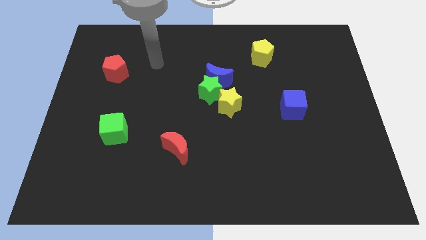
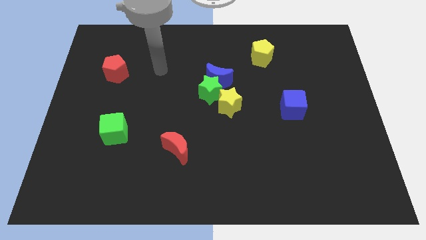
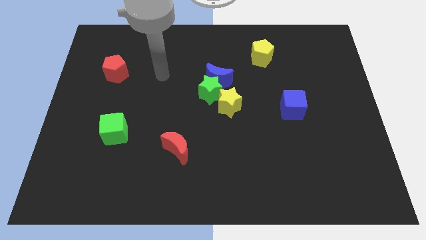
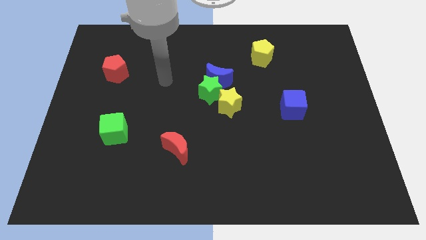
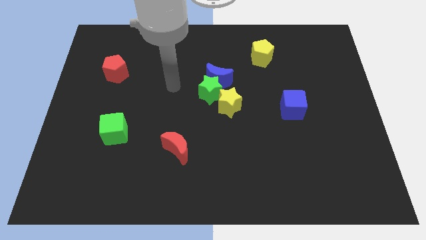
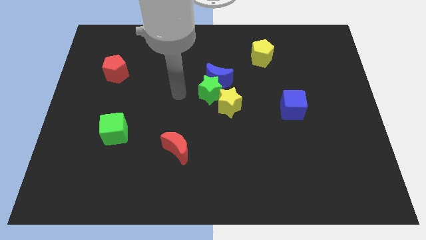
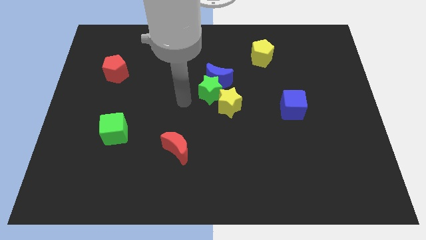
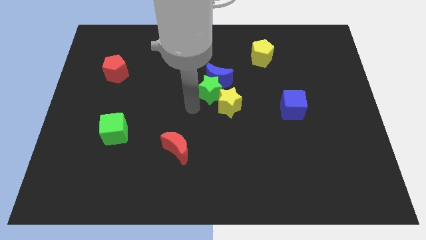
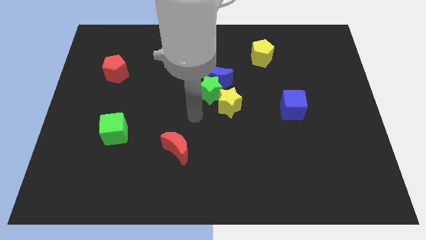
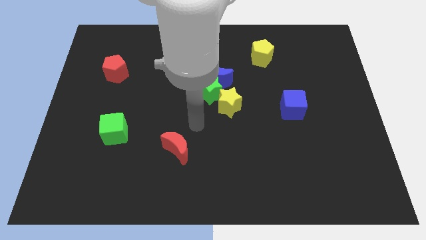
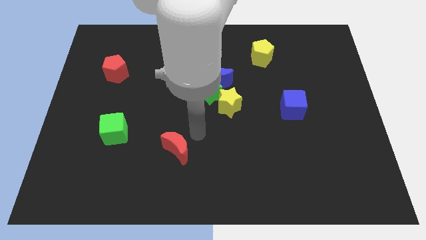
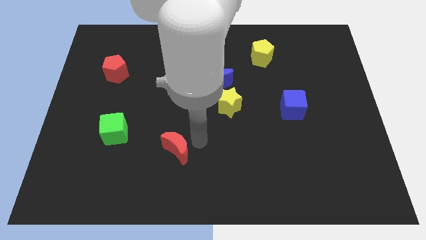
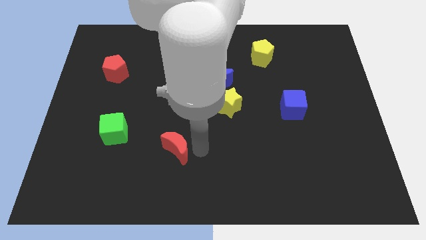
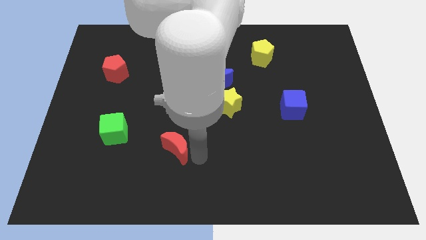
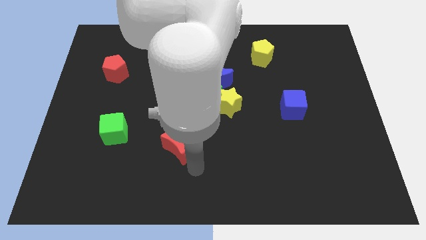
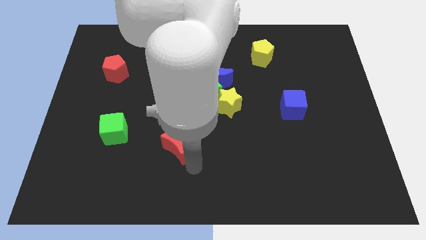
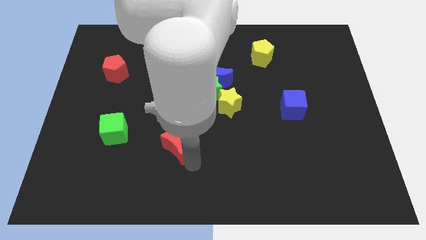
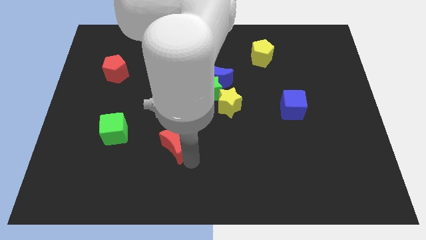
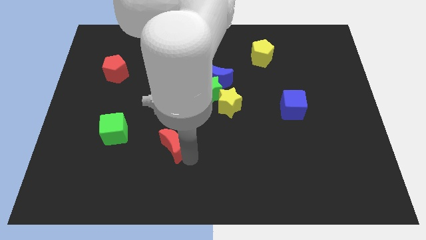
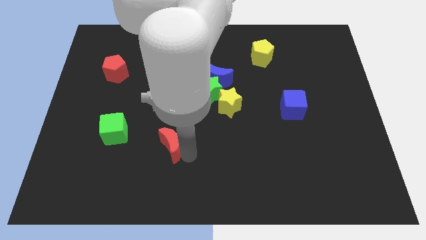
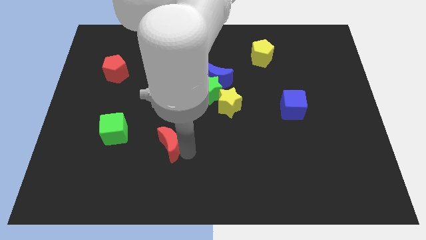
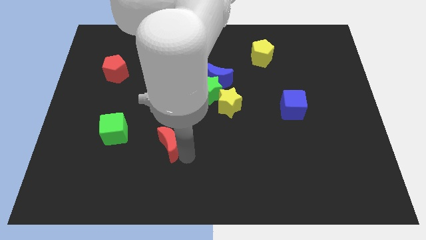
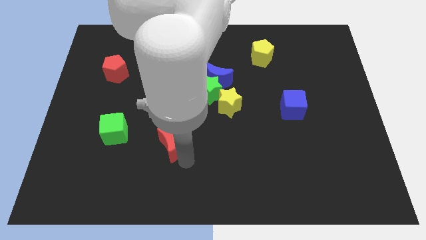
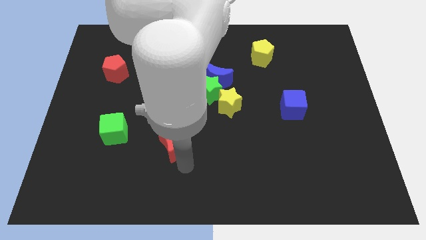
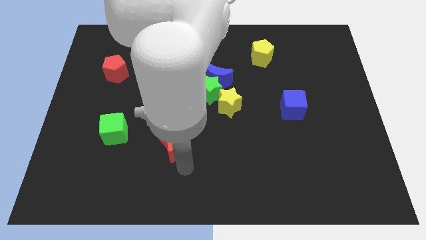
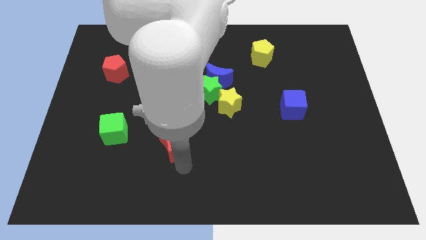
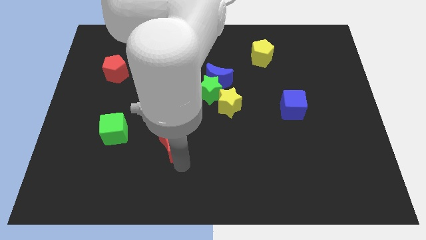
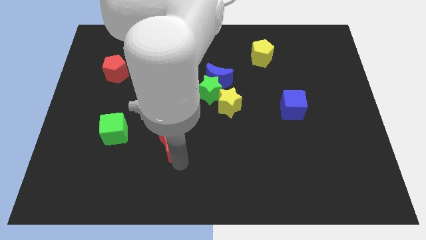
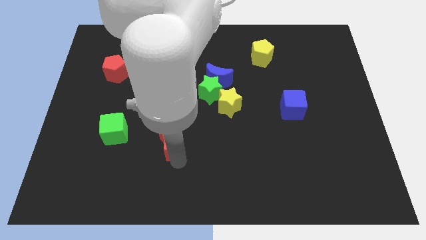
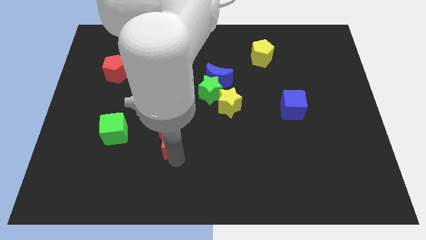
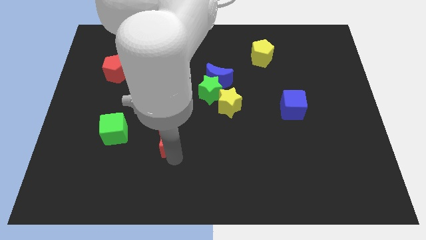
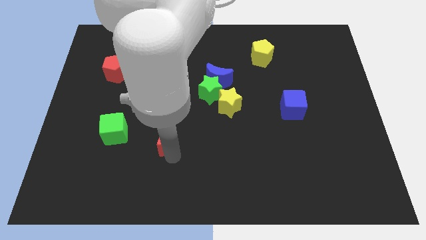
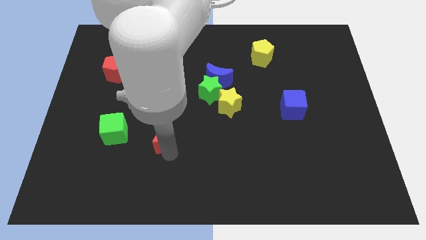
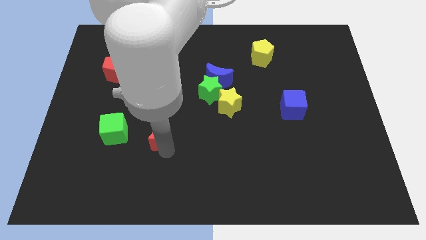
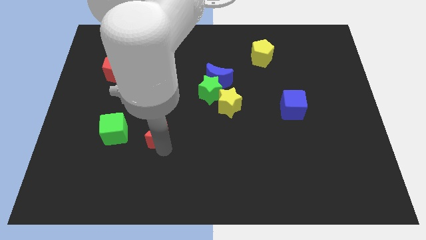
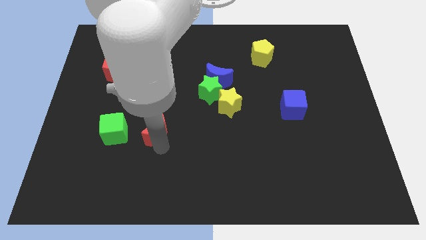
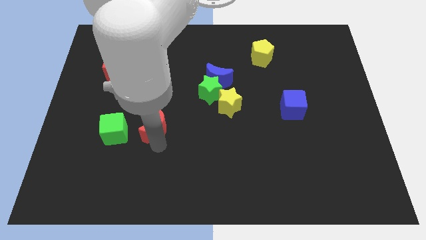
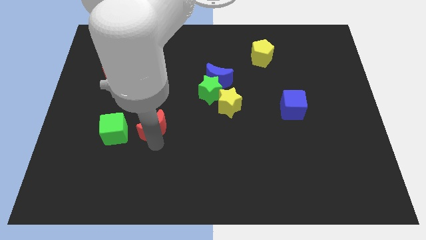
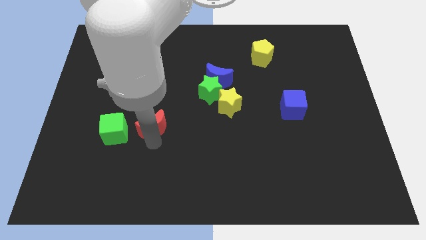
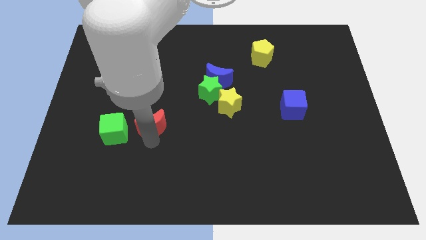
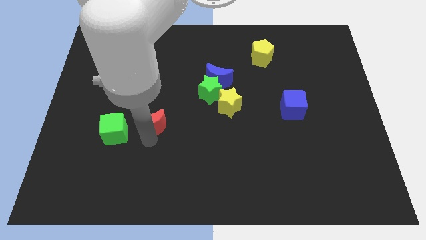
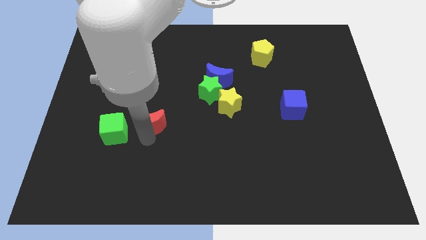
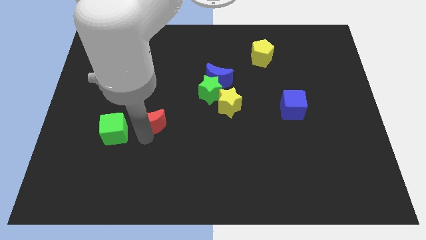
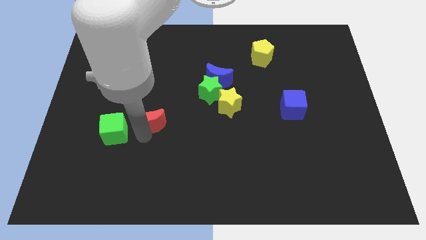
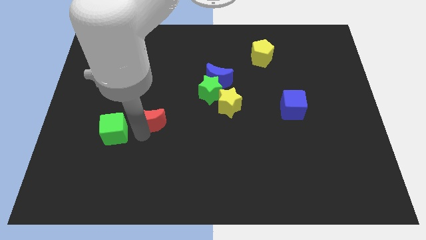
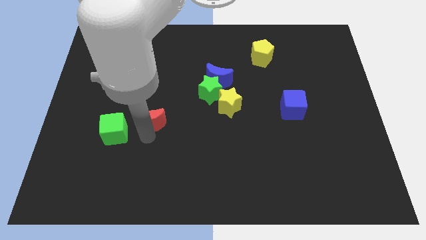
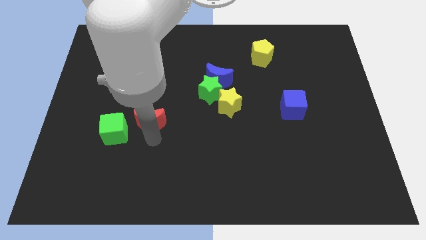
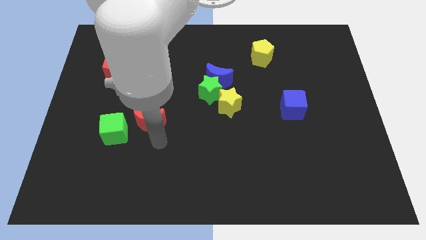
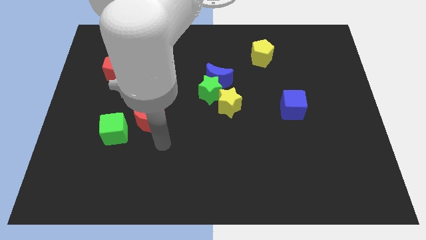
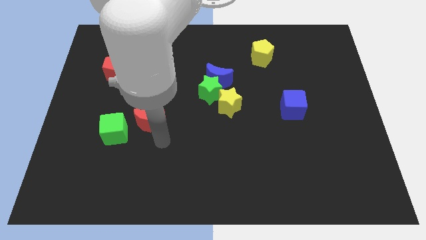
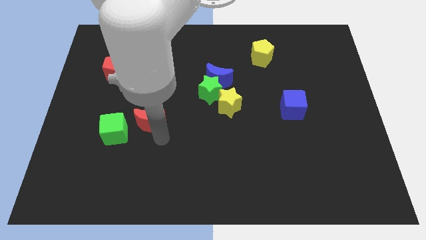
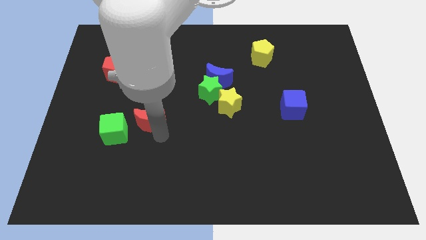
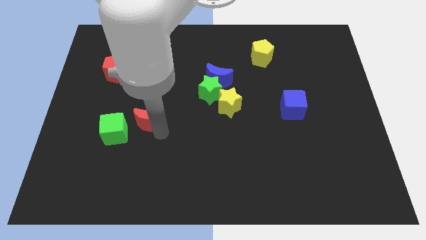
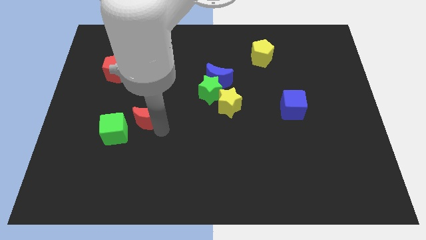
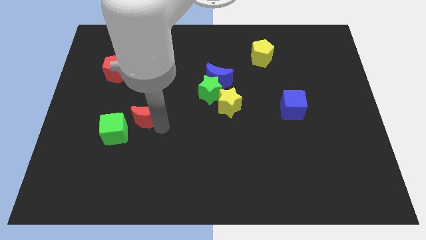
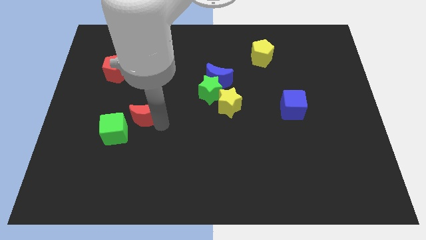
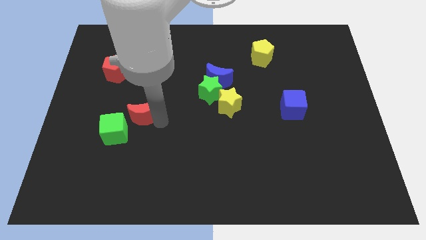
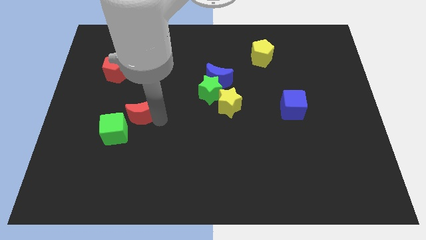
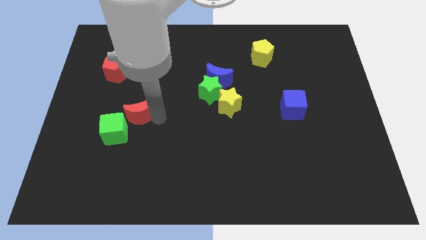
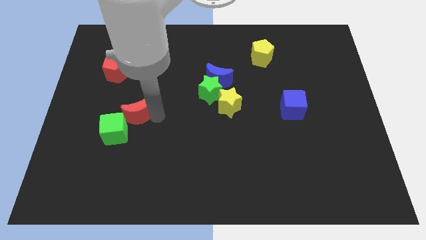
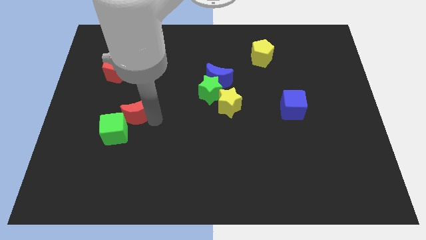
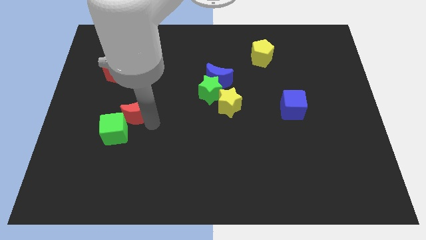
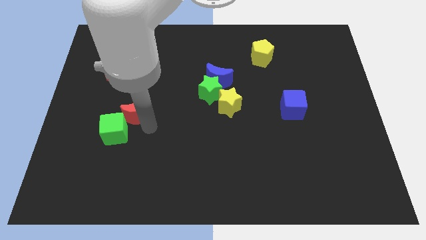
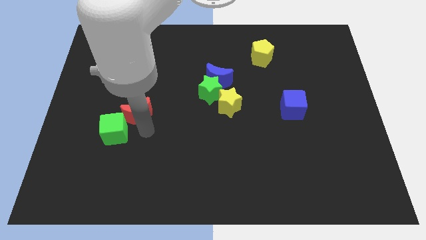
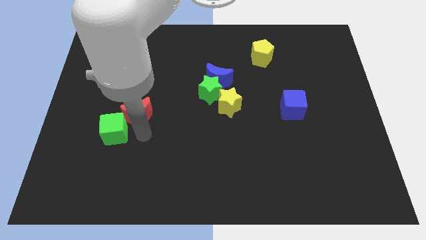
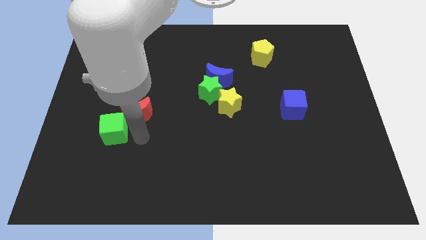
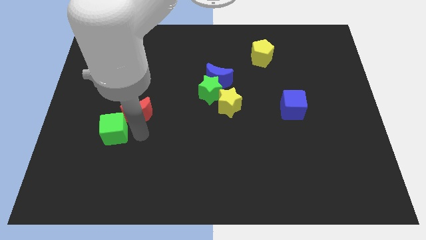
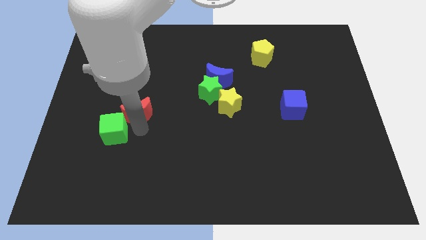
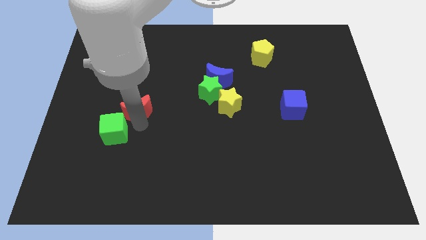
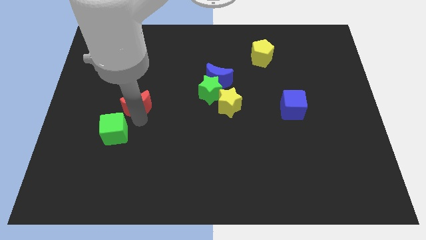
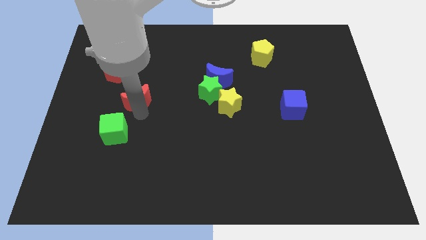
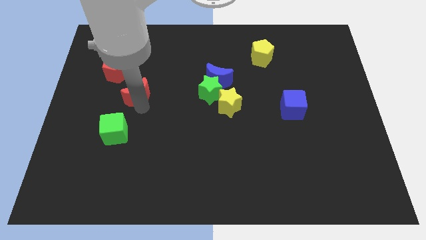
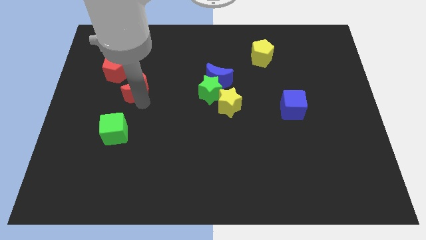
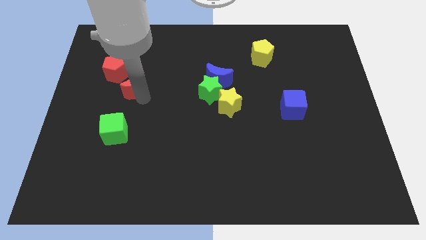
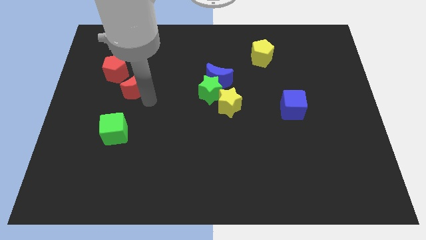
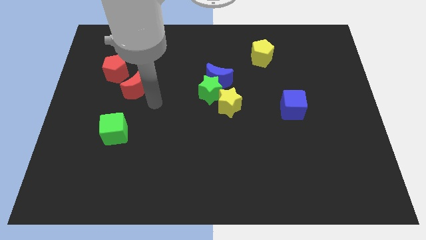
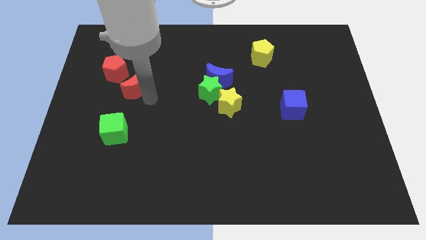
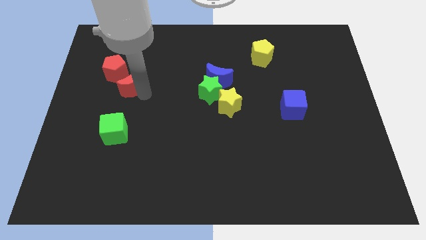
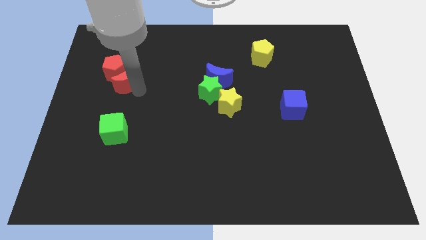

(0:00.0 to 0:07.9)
push the red moon towards the red pentagon
